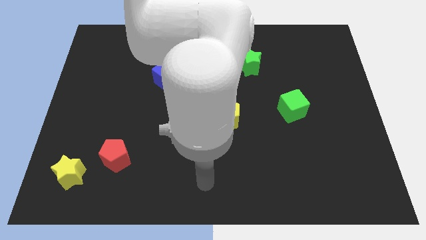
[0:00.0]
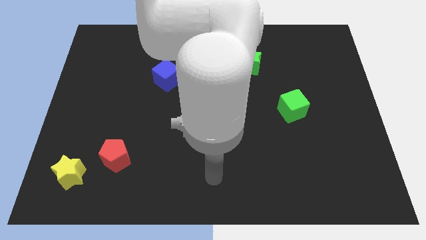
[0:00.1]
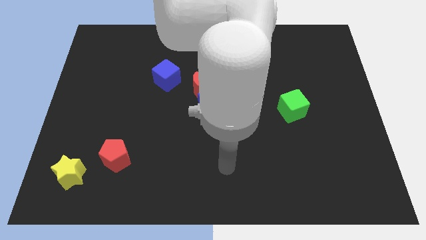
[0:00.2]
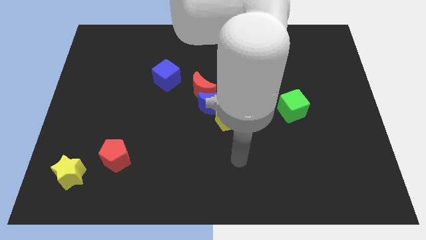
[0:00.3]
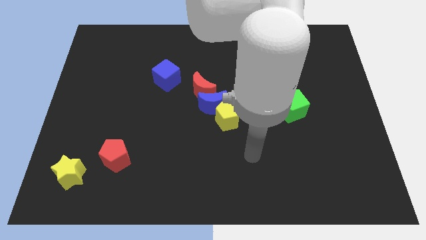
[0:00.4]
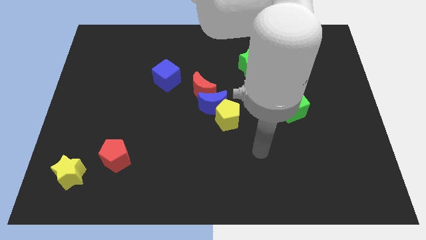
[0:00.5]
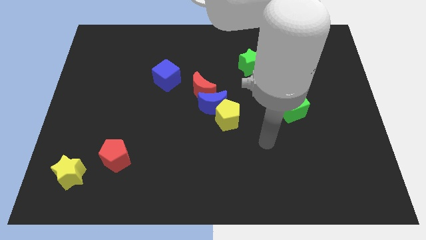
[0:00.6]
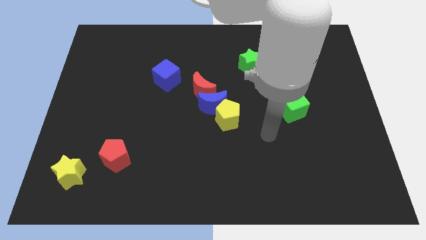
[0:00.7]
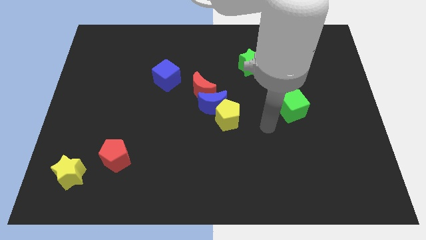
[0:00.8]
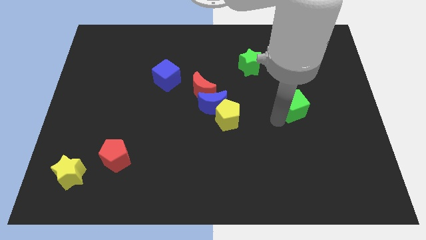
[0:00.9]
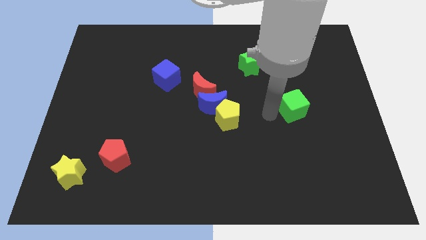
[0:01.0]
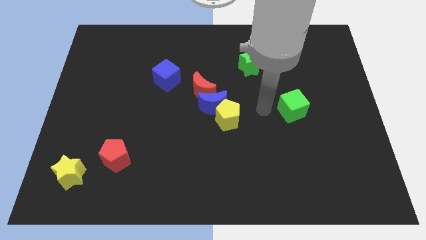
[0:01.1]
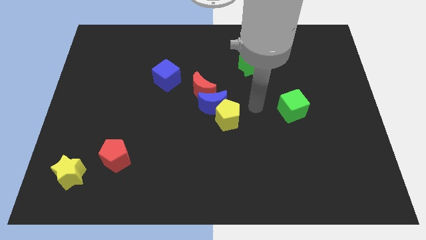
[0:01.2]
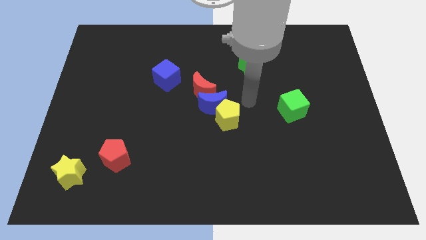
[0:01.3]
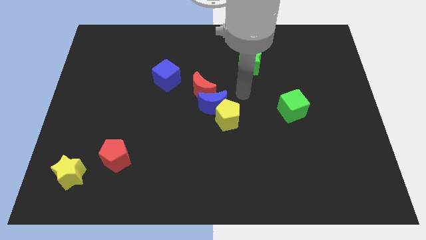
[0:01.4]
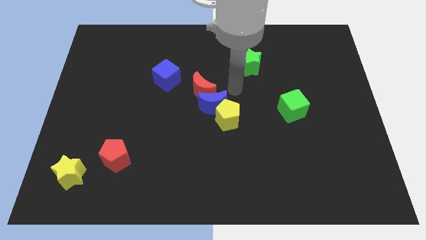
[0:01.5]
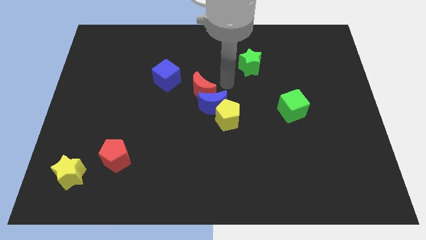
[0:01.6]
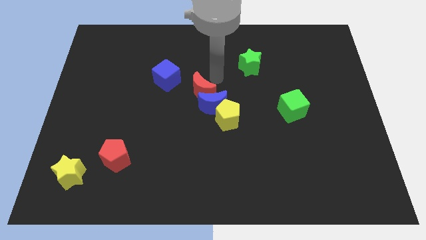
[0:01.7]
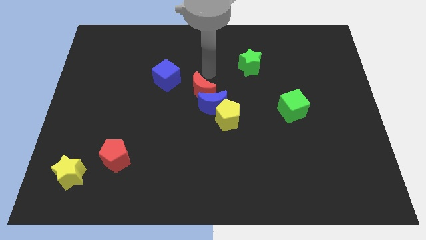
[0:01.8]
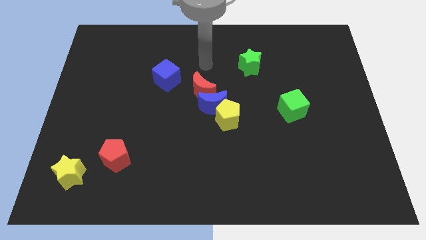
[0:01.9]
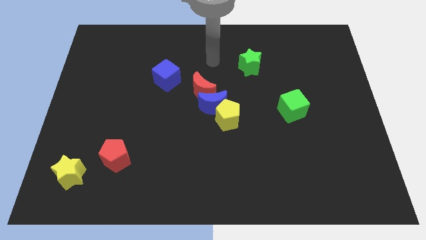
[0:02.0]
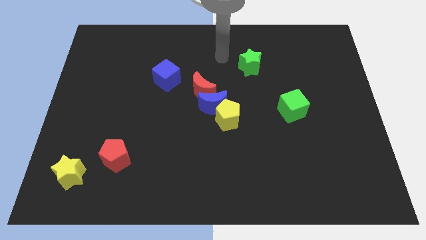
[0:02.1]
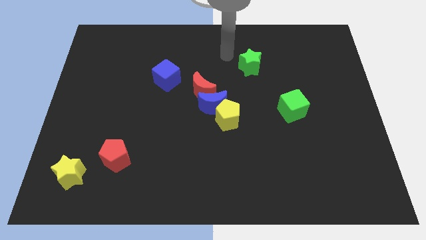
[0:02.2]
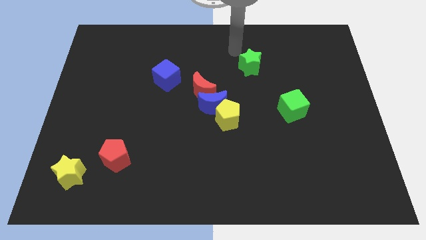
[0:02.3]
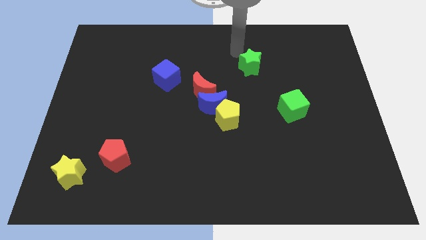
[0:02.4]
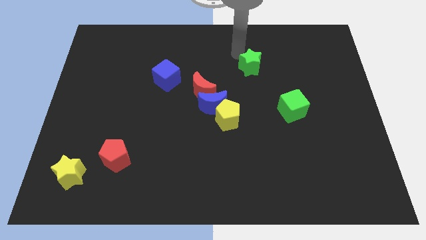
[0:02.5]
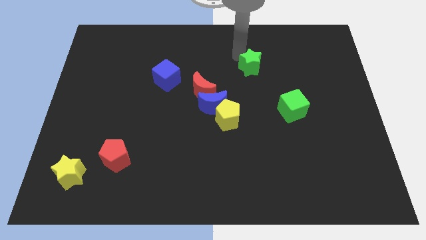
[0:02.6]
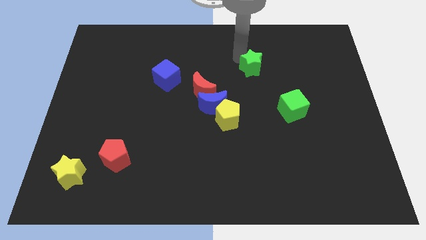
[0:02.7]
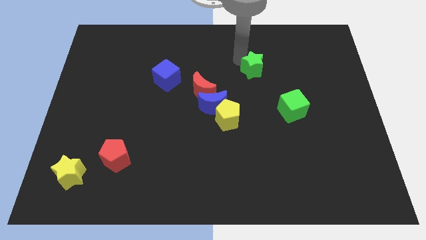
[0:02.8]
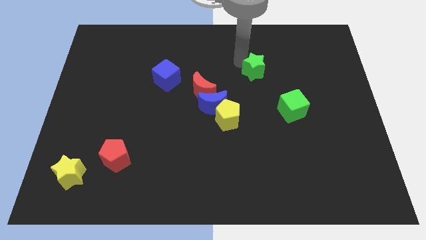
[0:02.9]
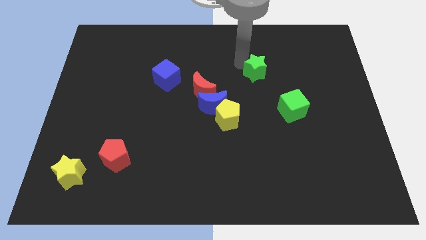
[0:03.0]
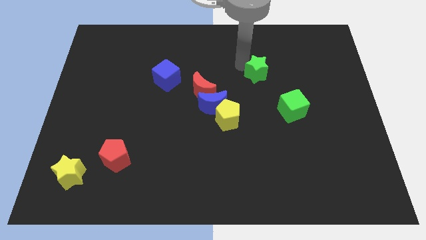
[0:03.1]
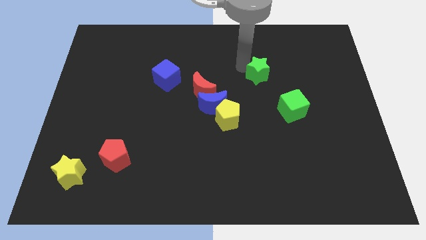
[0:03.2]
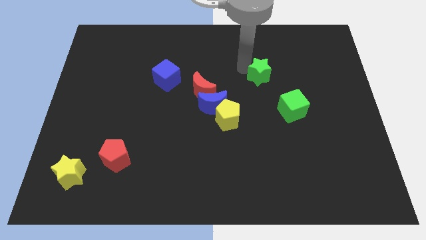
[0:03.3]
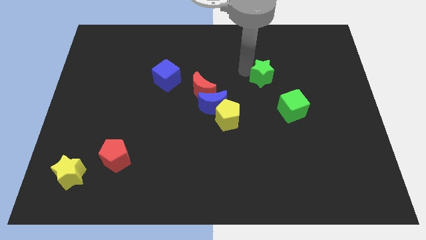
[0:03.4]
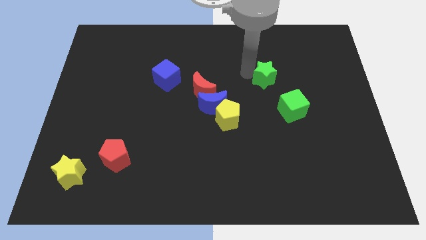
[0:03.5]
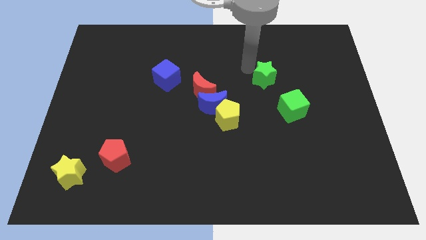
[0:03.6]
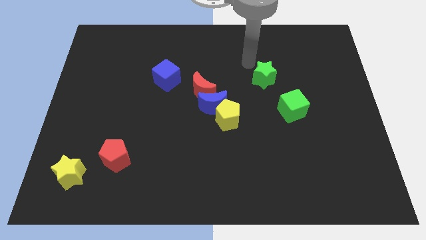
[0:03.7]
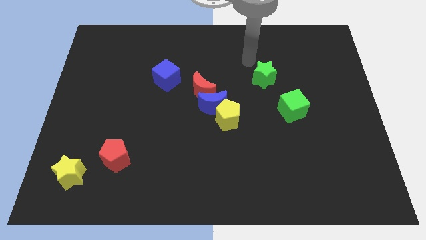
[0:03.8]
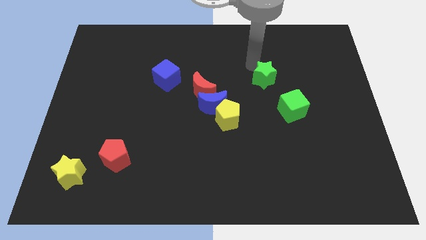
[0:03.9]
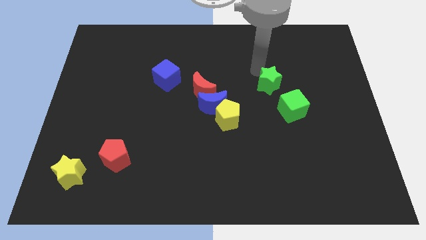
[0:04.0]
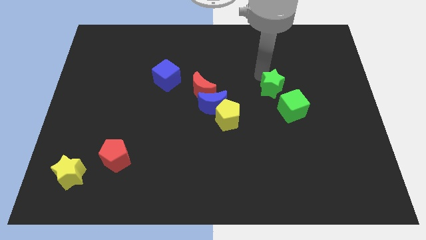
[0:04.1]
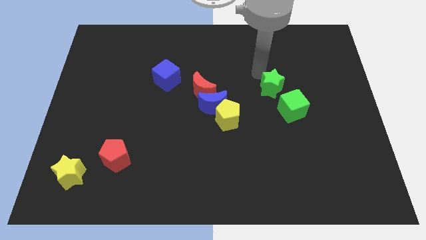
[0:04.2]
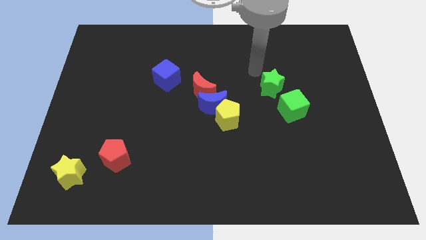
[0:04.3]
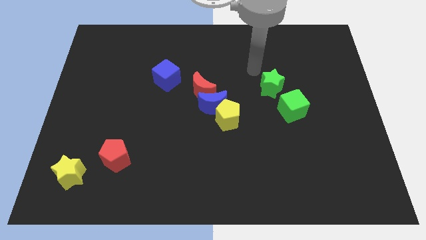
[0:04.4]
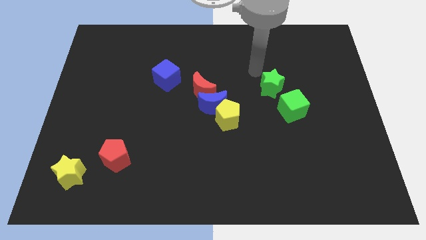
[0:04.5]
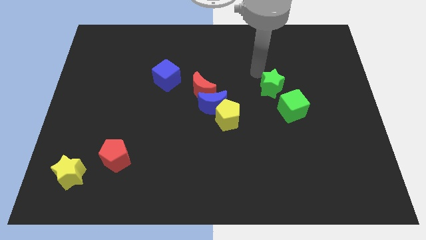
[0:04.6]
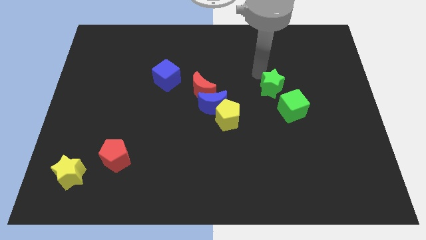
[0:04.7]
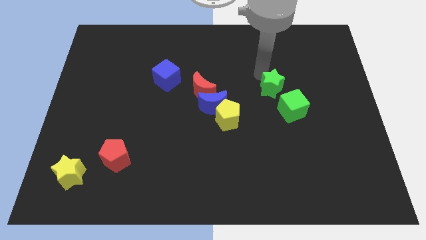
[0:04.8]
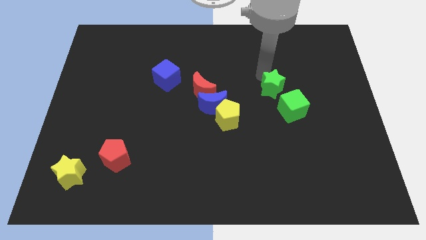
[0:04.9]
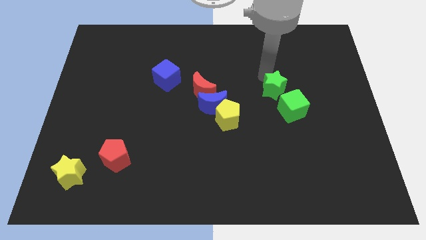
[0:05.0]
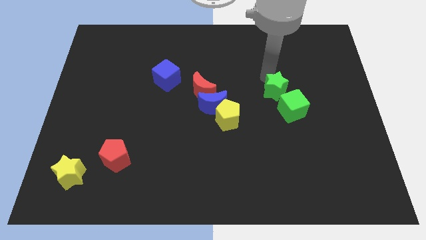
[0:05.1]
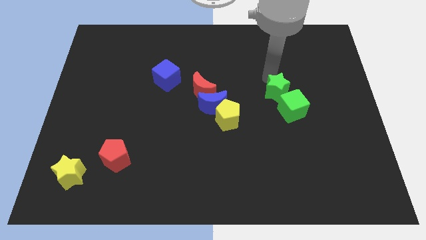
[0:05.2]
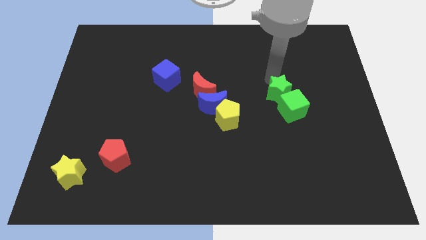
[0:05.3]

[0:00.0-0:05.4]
move the green star to the green cube

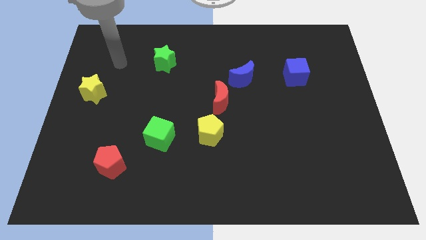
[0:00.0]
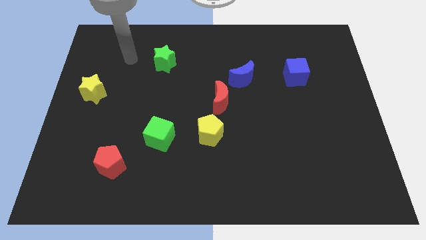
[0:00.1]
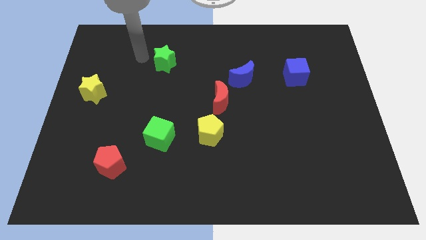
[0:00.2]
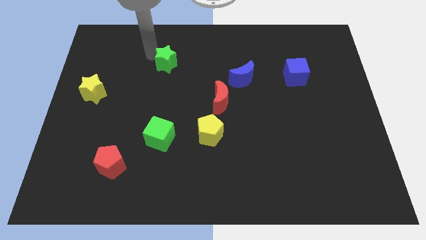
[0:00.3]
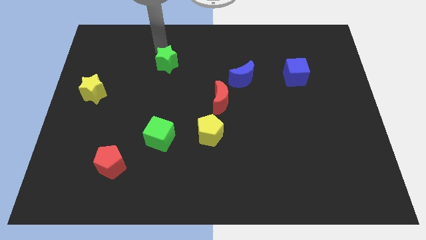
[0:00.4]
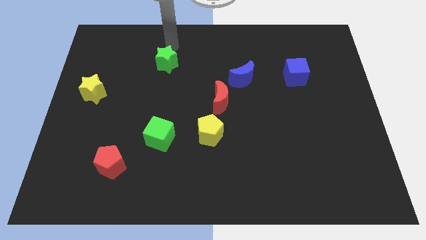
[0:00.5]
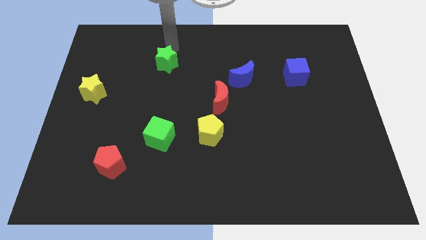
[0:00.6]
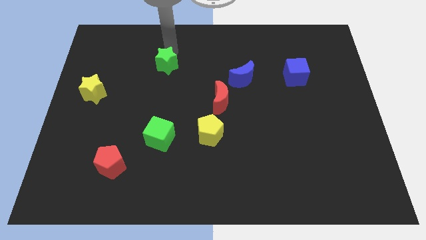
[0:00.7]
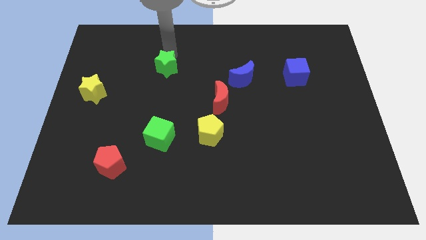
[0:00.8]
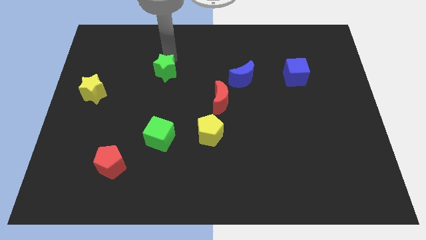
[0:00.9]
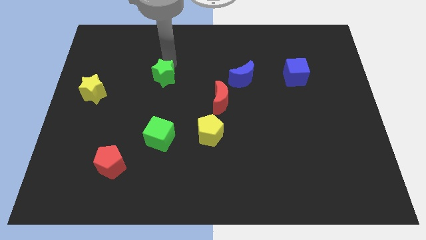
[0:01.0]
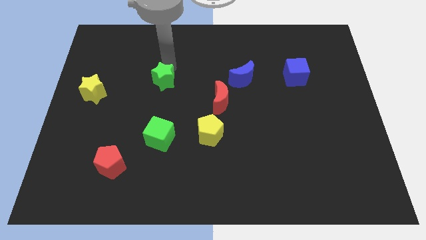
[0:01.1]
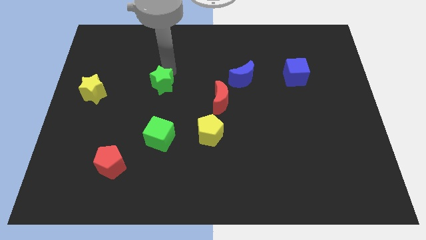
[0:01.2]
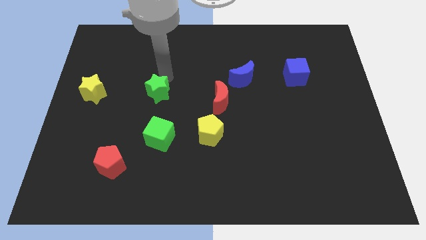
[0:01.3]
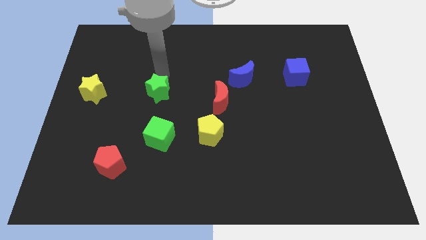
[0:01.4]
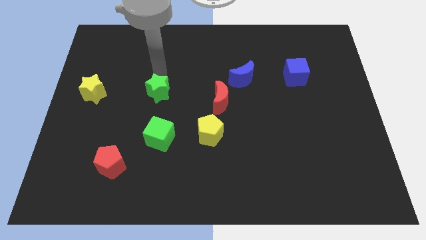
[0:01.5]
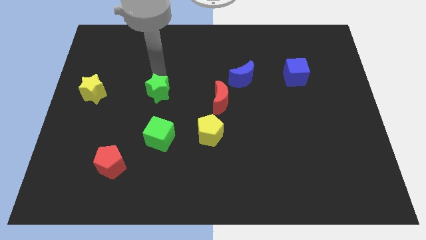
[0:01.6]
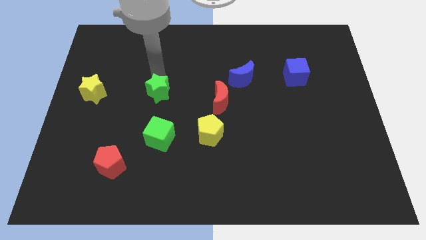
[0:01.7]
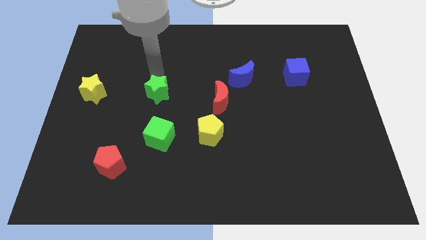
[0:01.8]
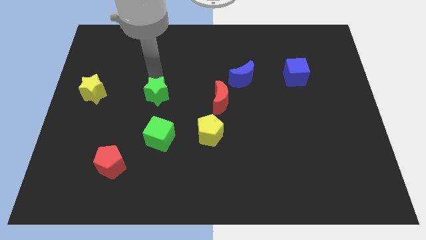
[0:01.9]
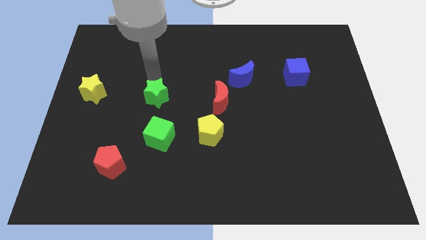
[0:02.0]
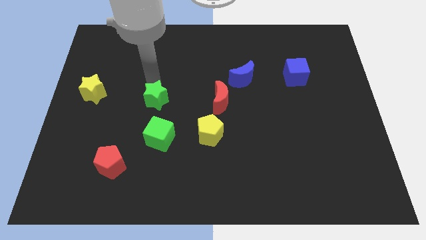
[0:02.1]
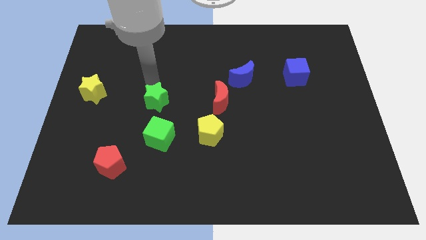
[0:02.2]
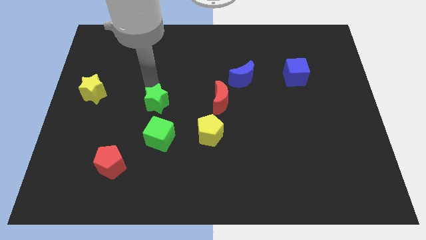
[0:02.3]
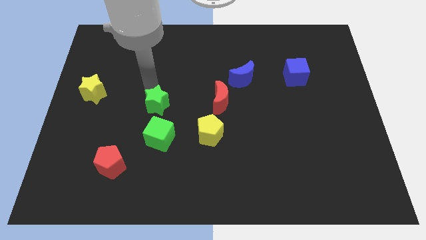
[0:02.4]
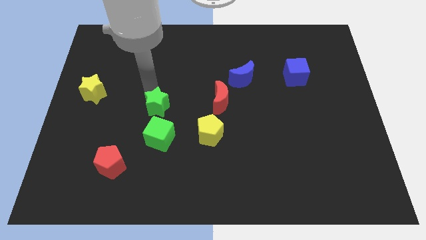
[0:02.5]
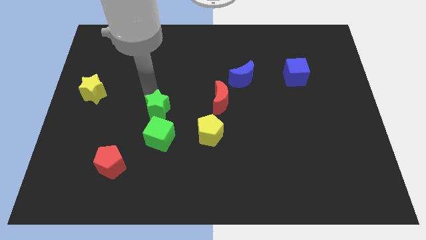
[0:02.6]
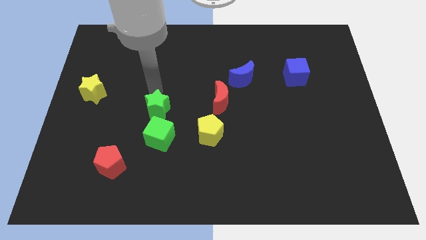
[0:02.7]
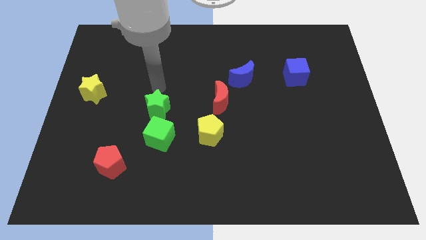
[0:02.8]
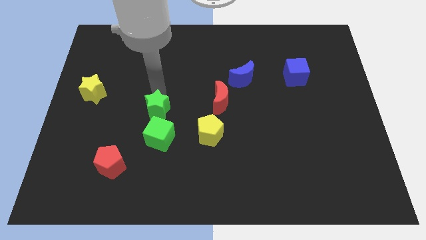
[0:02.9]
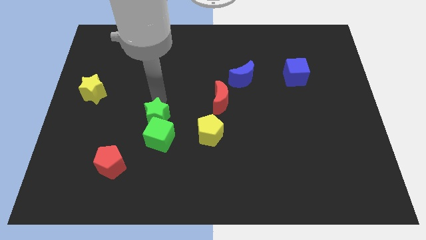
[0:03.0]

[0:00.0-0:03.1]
put the green star towards the green cube
